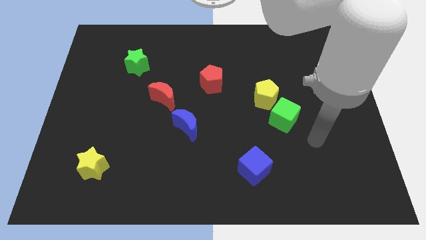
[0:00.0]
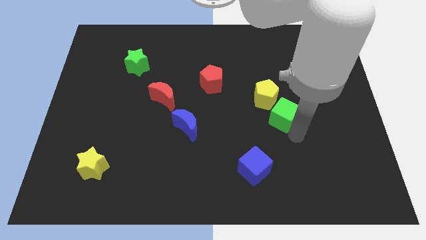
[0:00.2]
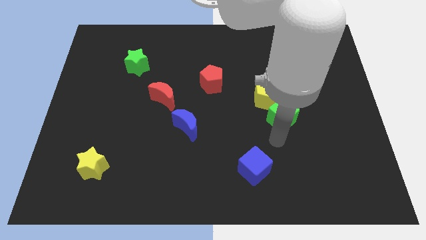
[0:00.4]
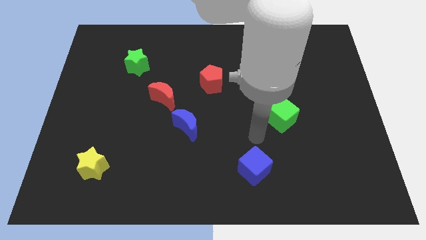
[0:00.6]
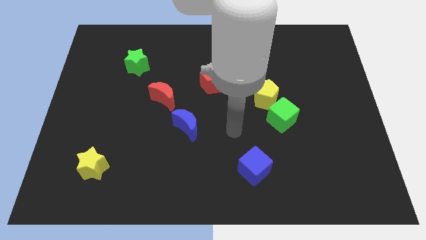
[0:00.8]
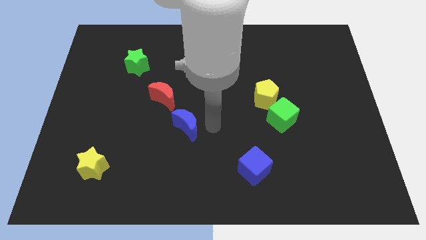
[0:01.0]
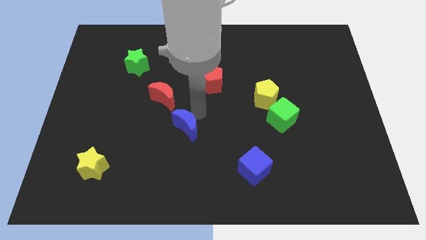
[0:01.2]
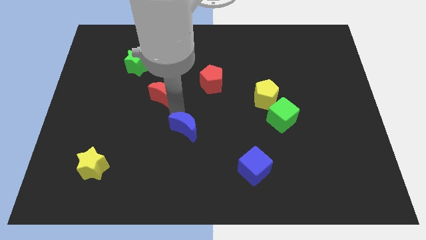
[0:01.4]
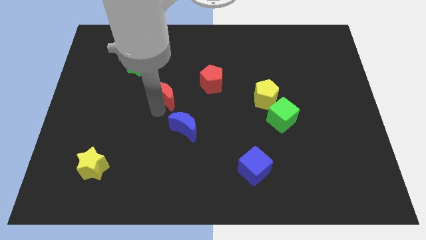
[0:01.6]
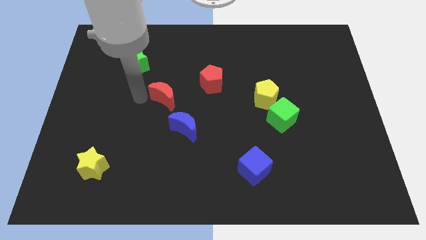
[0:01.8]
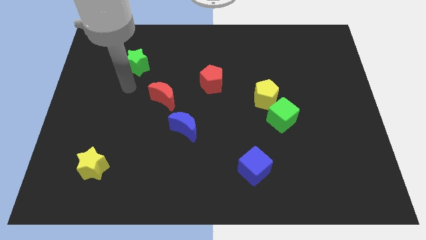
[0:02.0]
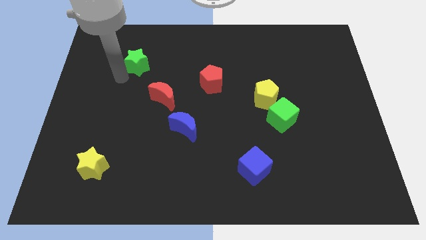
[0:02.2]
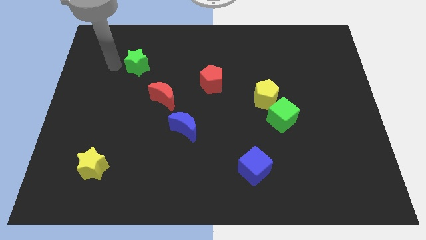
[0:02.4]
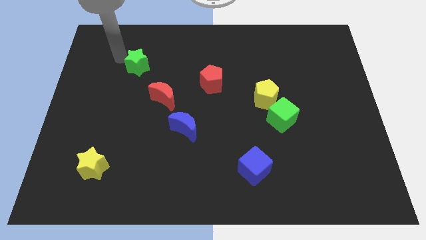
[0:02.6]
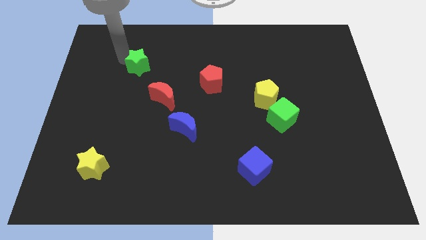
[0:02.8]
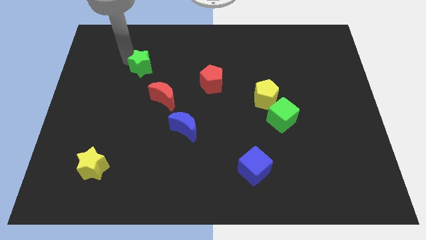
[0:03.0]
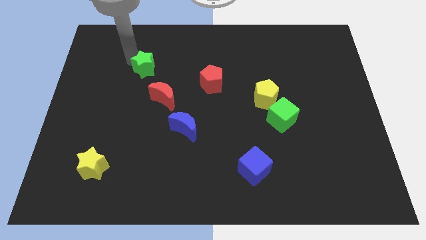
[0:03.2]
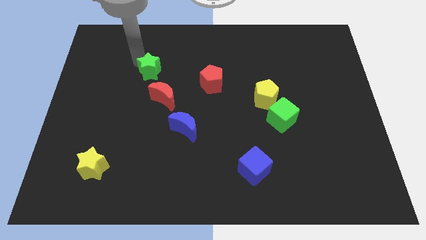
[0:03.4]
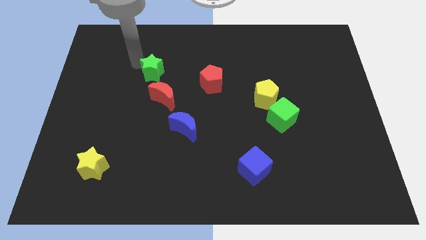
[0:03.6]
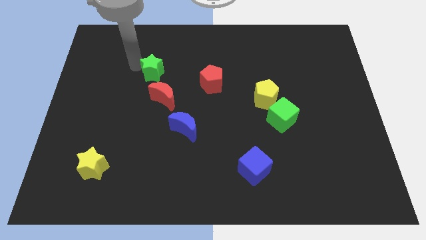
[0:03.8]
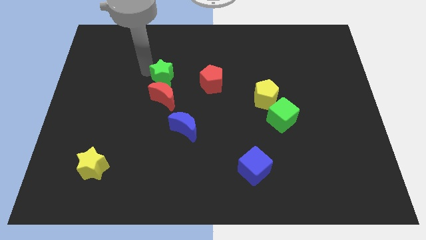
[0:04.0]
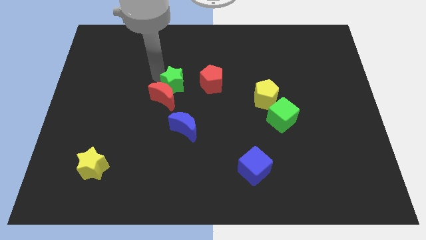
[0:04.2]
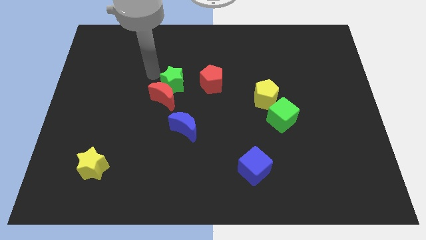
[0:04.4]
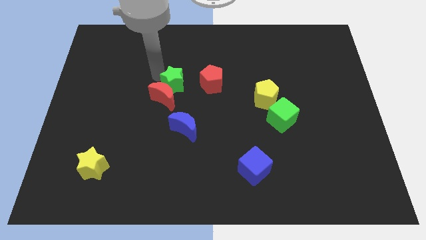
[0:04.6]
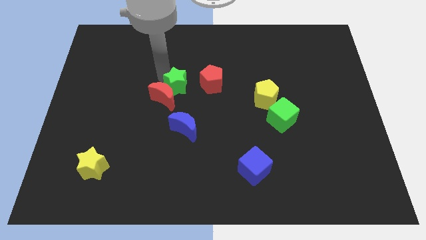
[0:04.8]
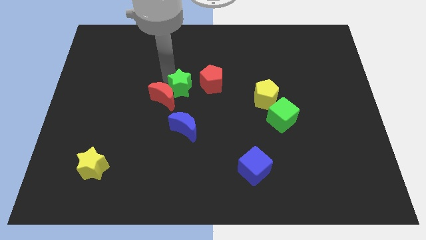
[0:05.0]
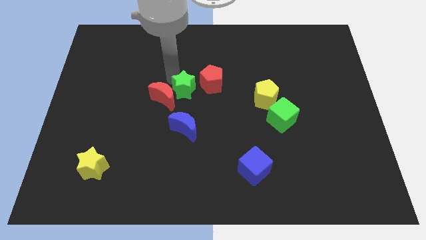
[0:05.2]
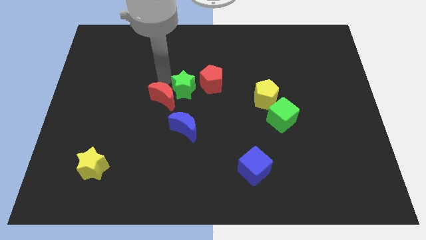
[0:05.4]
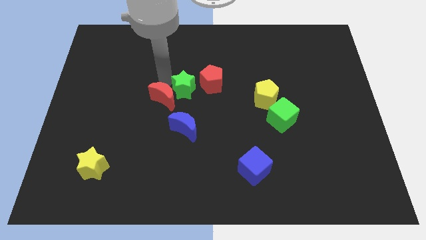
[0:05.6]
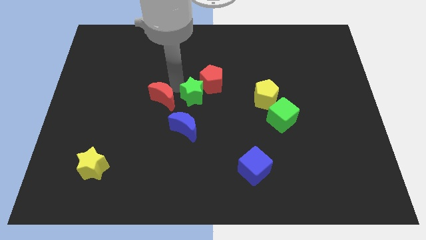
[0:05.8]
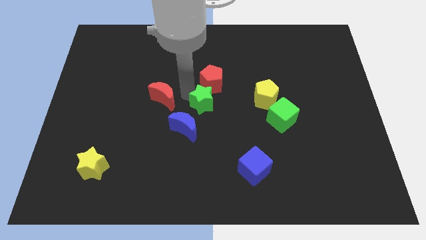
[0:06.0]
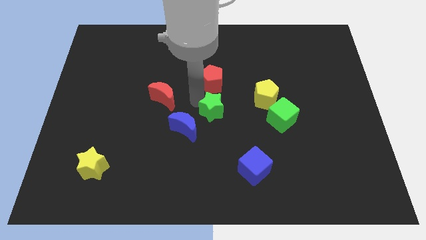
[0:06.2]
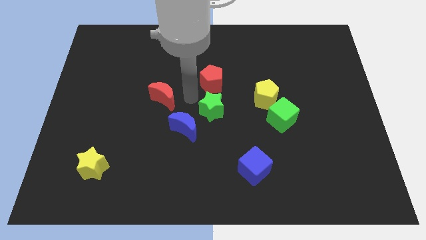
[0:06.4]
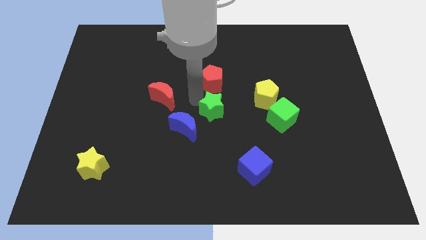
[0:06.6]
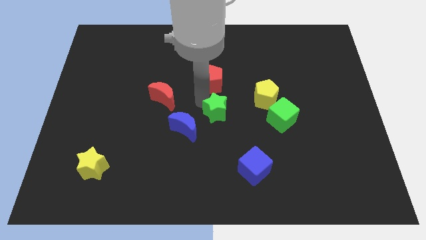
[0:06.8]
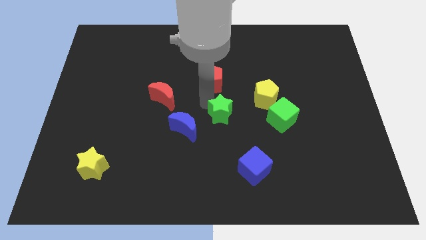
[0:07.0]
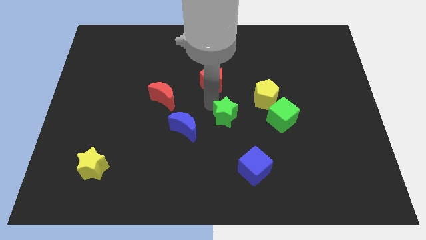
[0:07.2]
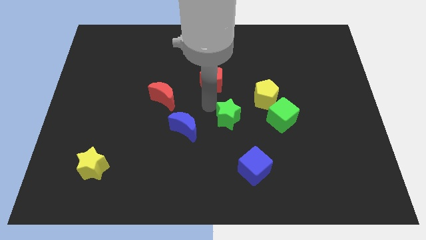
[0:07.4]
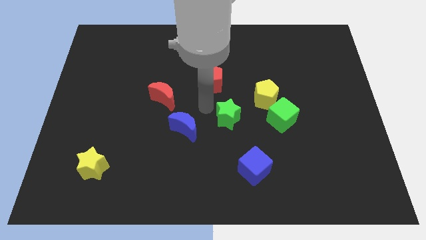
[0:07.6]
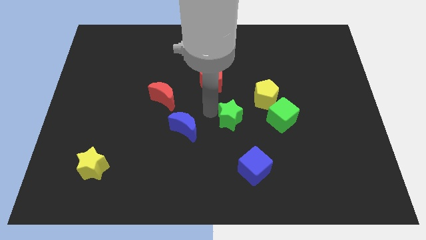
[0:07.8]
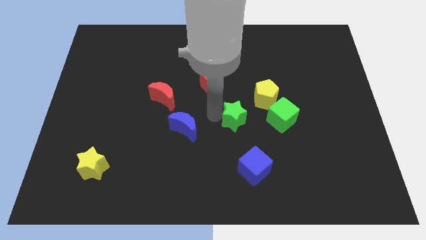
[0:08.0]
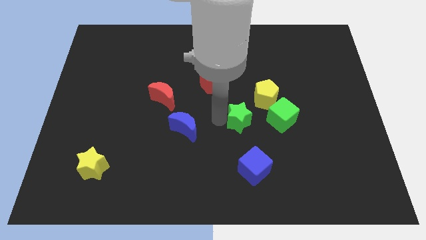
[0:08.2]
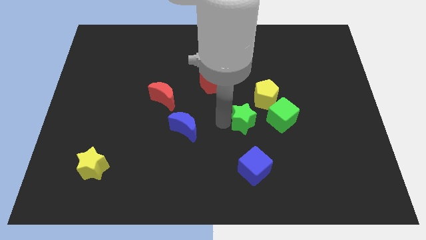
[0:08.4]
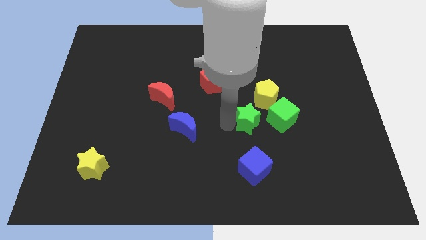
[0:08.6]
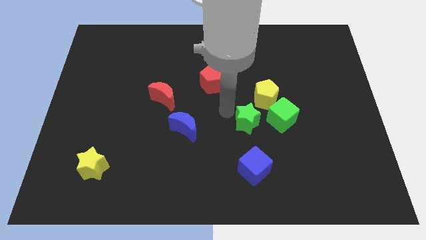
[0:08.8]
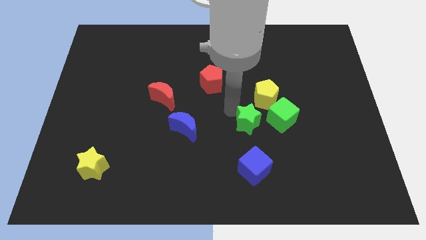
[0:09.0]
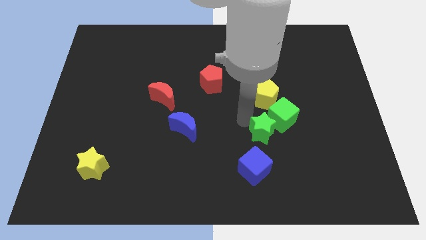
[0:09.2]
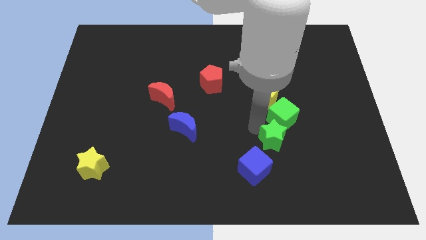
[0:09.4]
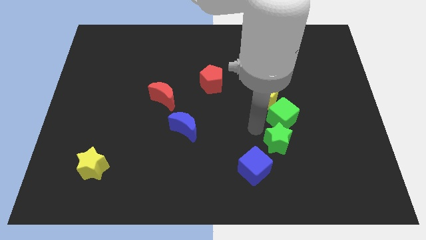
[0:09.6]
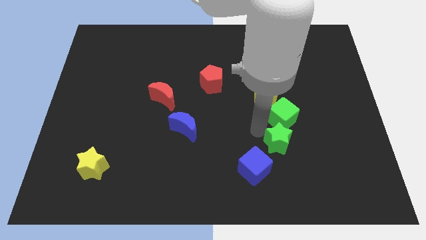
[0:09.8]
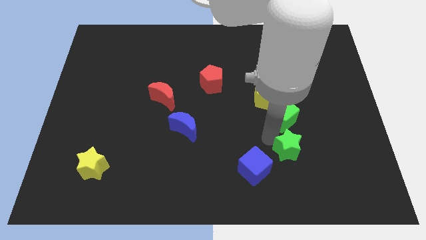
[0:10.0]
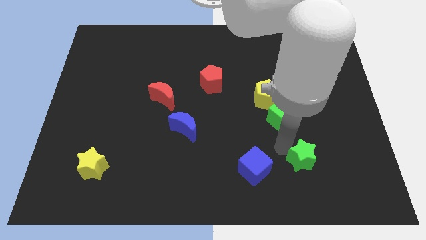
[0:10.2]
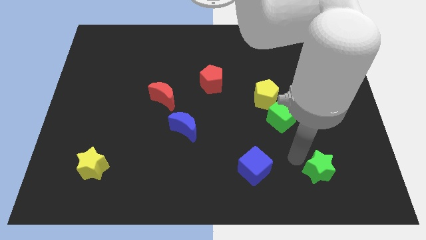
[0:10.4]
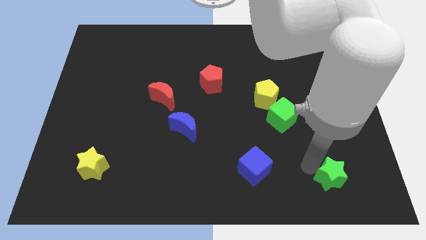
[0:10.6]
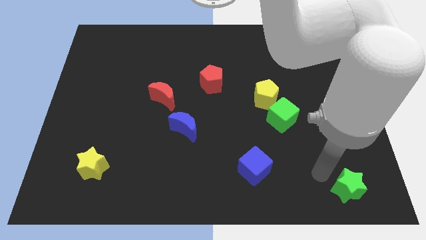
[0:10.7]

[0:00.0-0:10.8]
move the green star to the bottom right of the board
